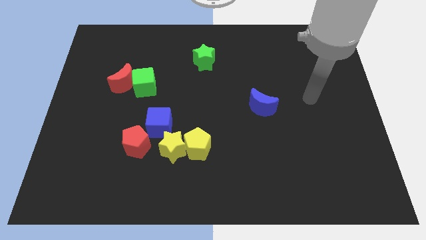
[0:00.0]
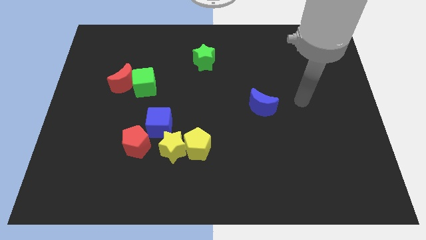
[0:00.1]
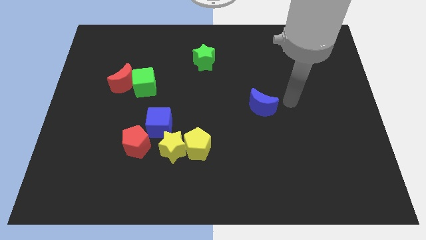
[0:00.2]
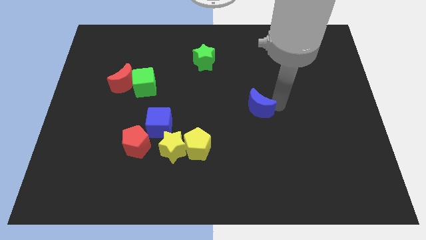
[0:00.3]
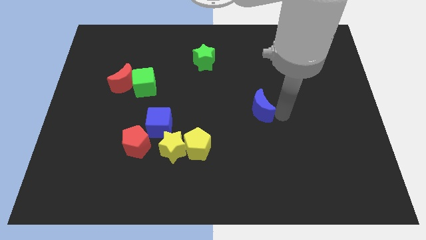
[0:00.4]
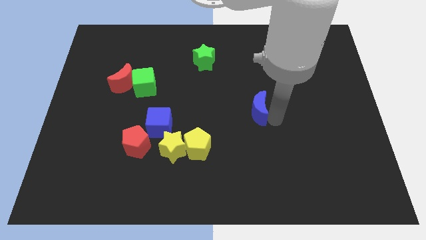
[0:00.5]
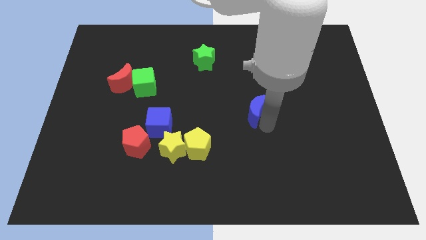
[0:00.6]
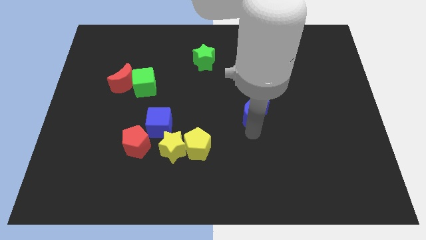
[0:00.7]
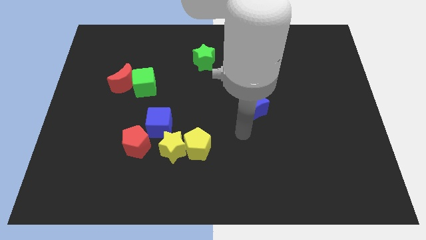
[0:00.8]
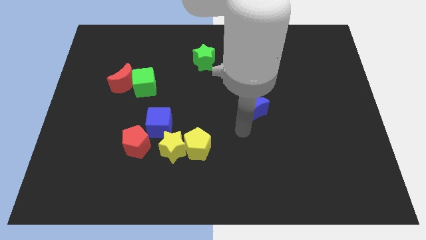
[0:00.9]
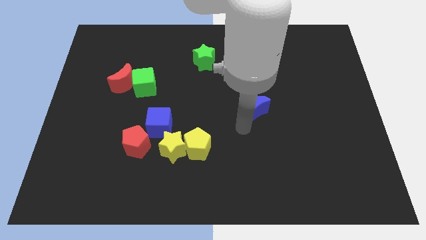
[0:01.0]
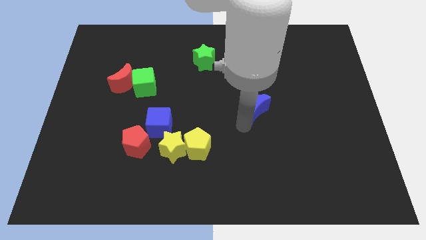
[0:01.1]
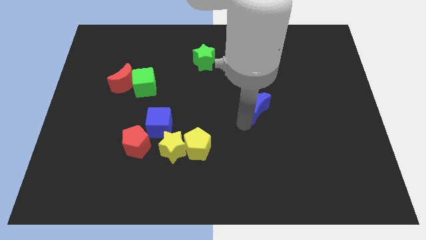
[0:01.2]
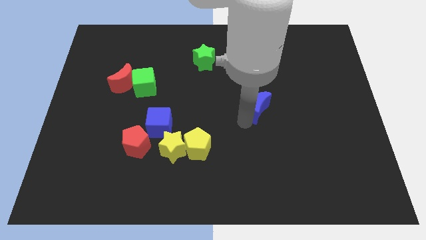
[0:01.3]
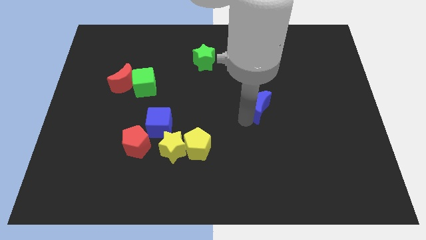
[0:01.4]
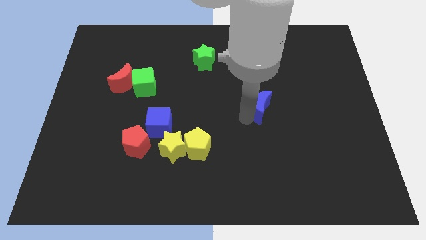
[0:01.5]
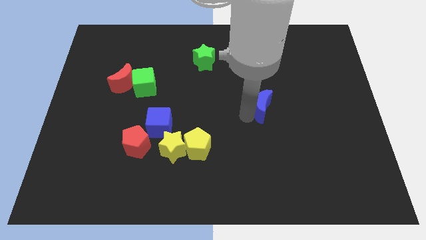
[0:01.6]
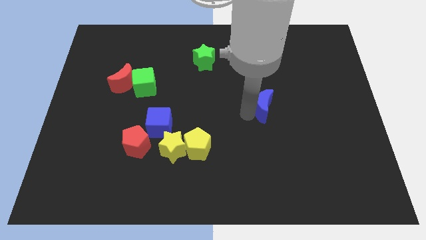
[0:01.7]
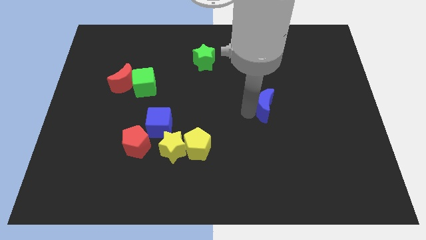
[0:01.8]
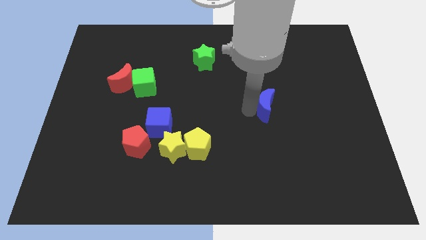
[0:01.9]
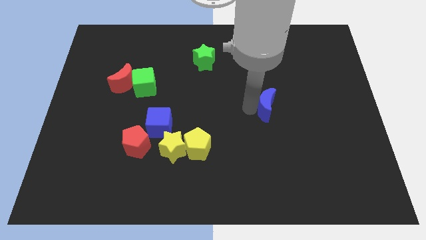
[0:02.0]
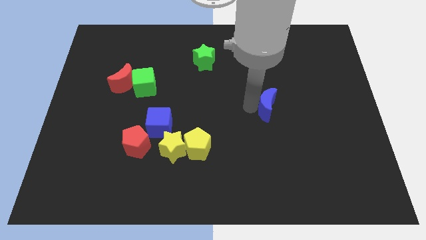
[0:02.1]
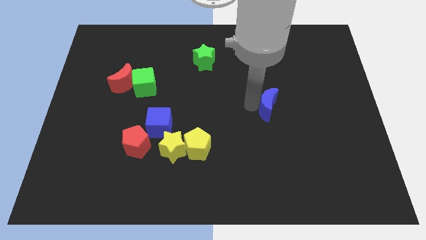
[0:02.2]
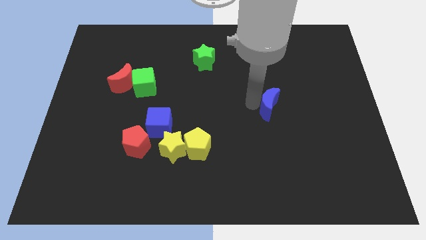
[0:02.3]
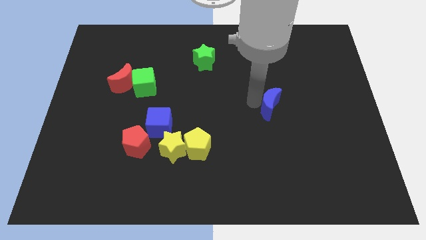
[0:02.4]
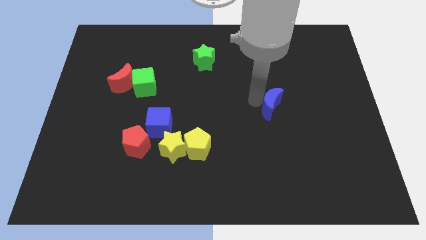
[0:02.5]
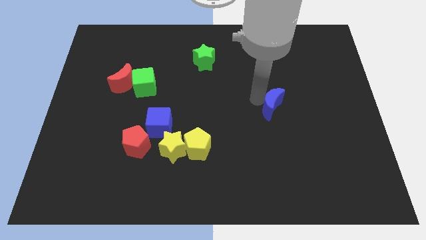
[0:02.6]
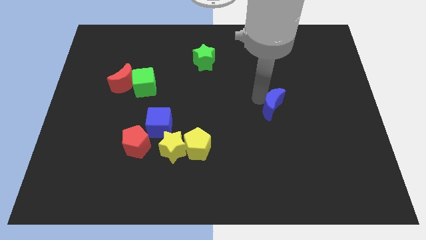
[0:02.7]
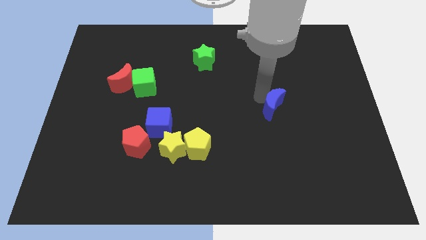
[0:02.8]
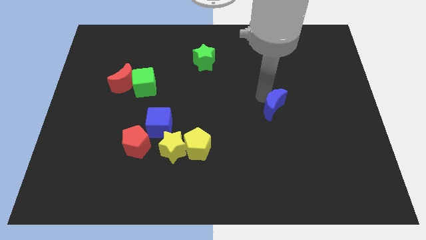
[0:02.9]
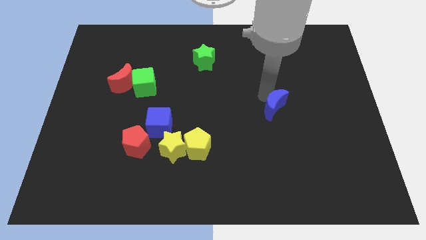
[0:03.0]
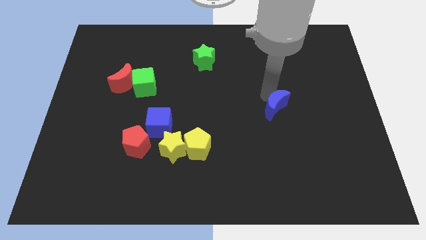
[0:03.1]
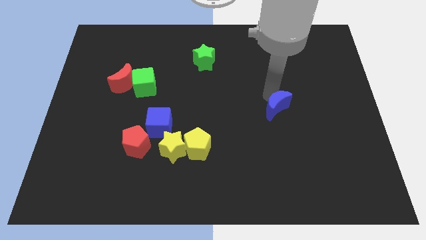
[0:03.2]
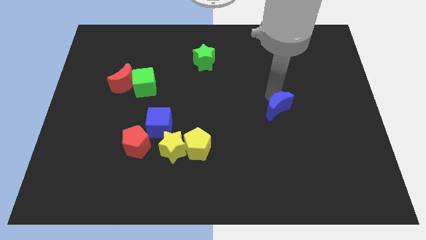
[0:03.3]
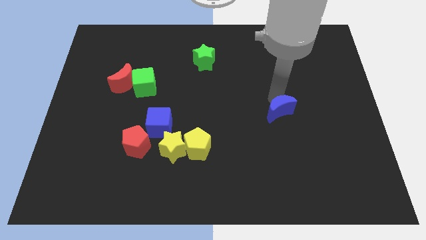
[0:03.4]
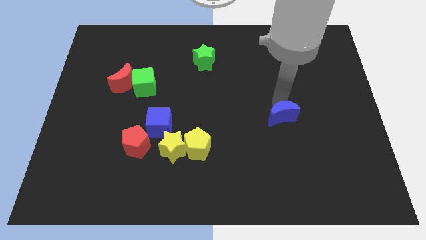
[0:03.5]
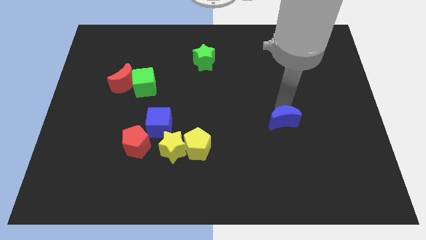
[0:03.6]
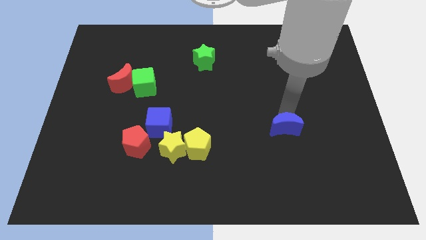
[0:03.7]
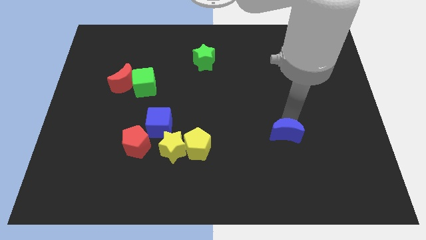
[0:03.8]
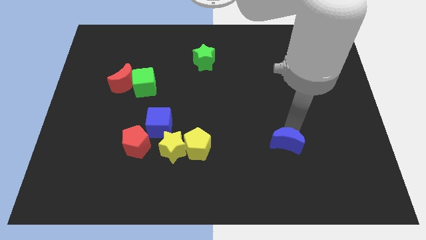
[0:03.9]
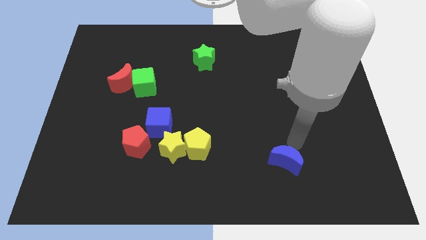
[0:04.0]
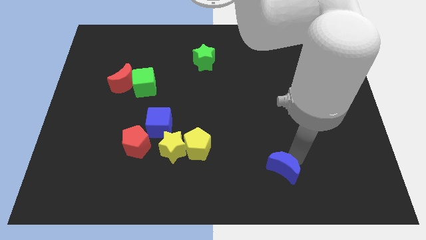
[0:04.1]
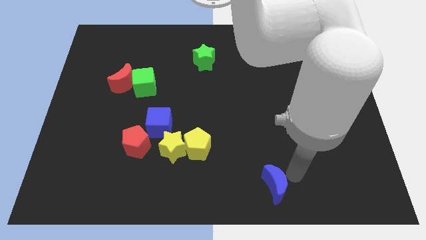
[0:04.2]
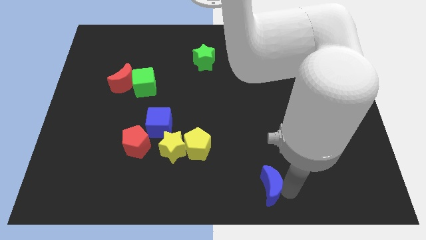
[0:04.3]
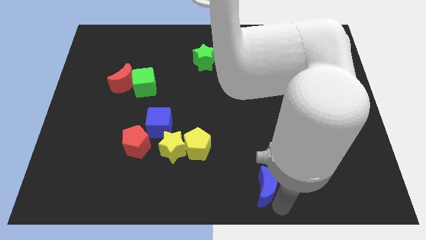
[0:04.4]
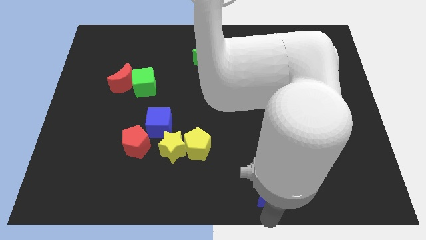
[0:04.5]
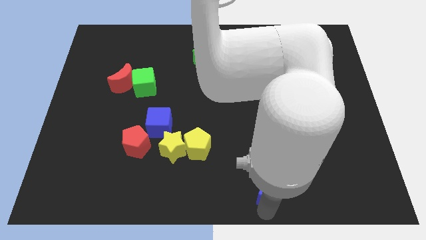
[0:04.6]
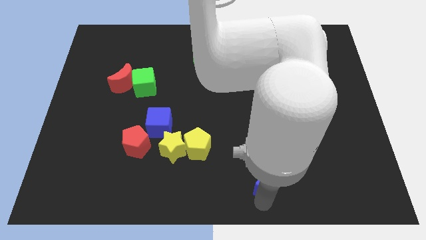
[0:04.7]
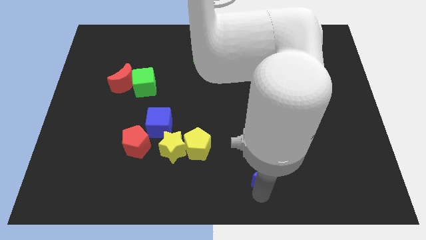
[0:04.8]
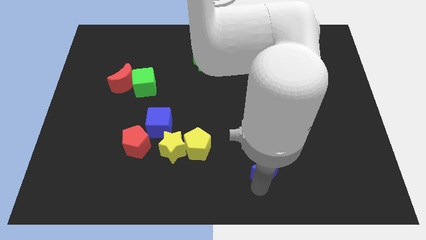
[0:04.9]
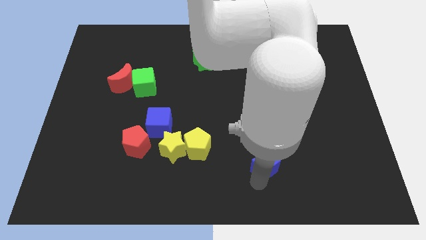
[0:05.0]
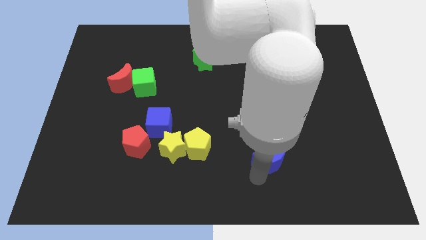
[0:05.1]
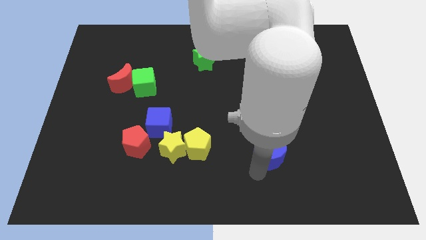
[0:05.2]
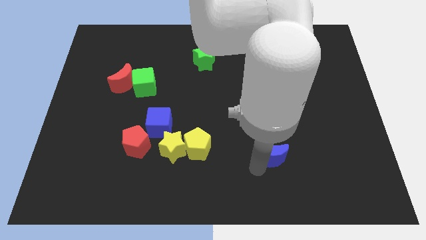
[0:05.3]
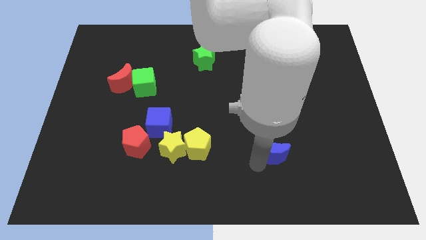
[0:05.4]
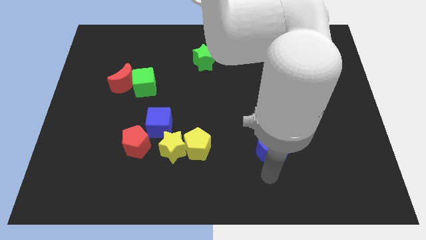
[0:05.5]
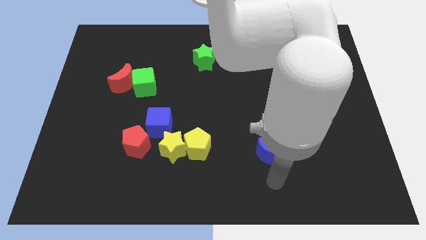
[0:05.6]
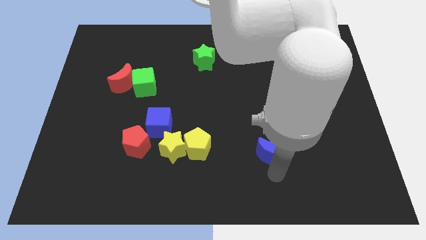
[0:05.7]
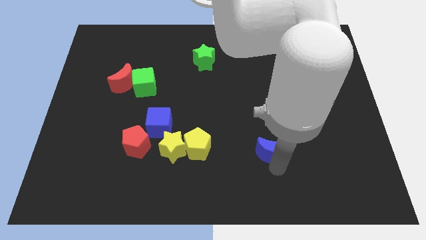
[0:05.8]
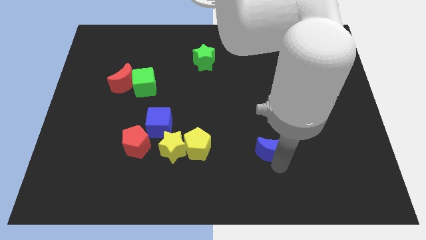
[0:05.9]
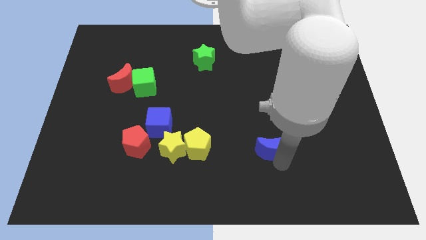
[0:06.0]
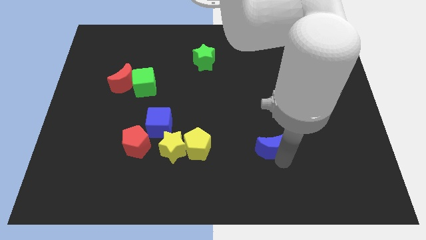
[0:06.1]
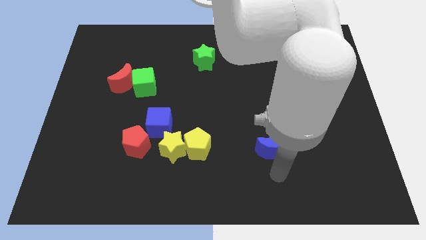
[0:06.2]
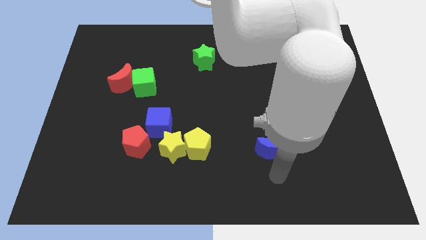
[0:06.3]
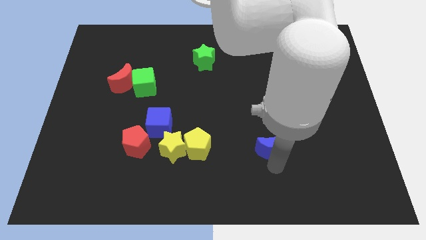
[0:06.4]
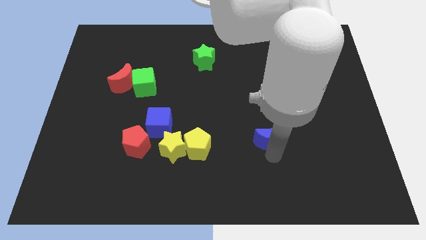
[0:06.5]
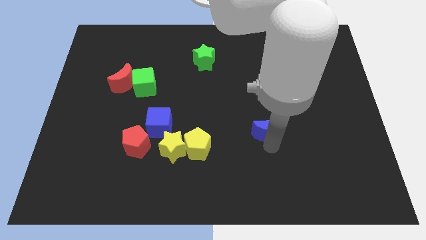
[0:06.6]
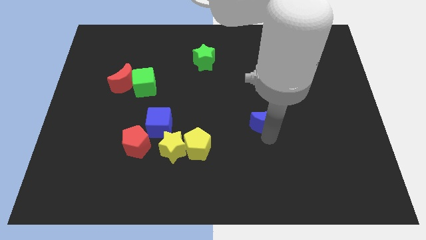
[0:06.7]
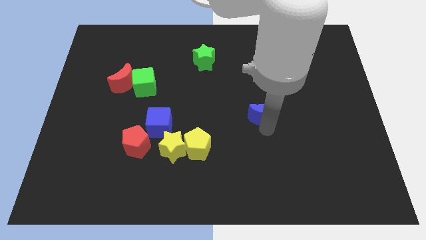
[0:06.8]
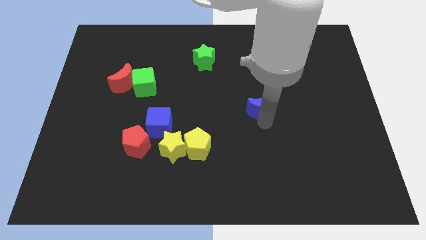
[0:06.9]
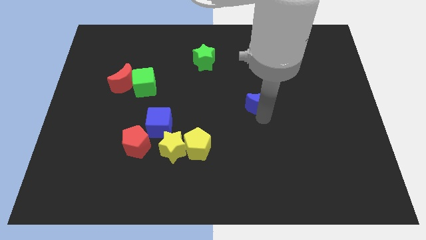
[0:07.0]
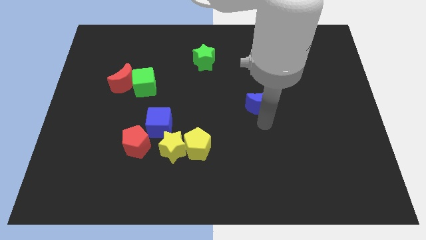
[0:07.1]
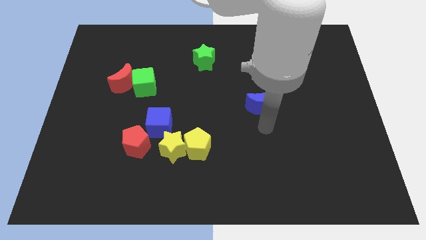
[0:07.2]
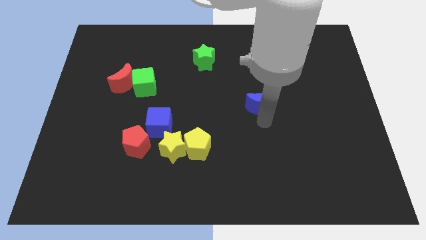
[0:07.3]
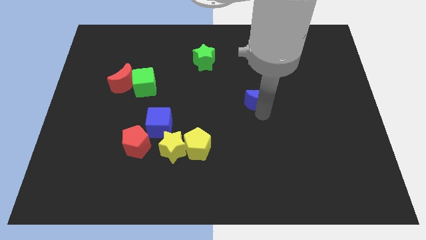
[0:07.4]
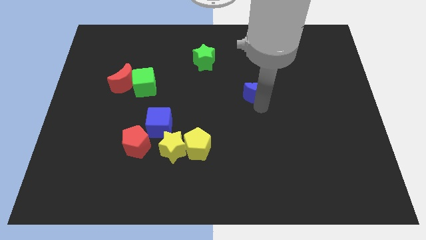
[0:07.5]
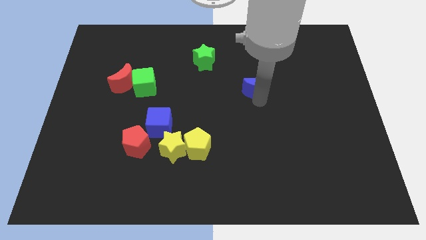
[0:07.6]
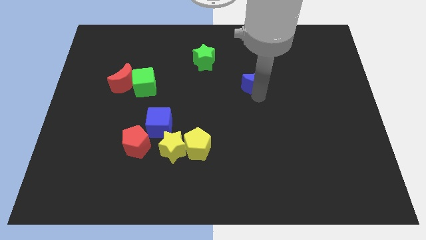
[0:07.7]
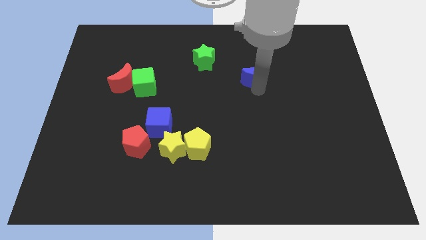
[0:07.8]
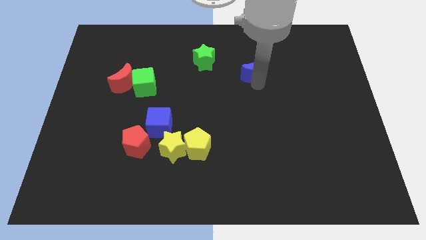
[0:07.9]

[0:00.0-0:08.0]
put the blue moon just right of the green star
